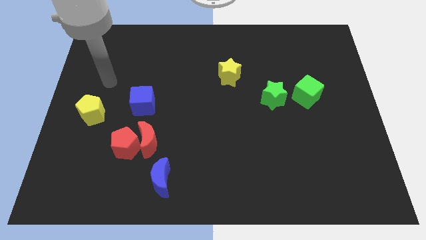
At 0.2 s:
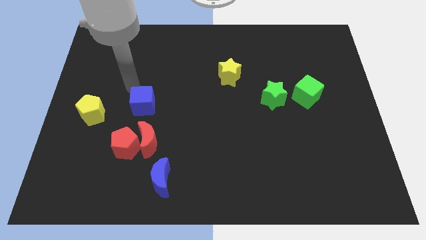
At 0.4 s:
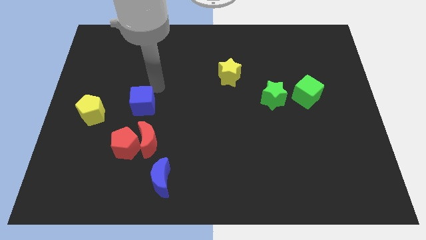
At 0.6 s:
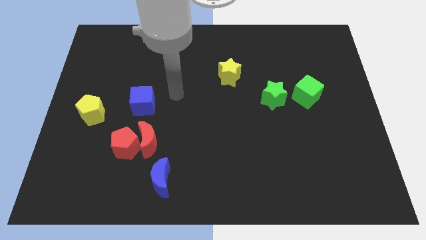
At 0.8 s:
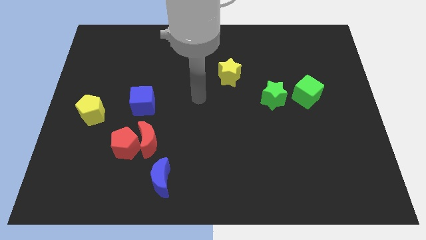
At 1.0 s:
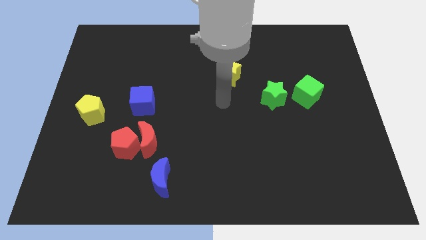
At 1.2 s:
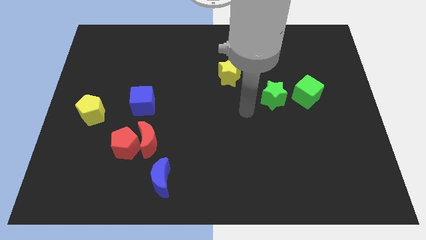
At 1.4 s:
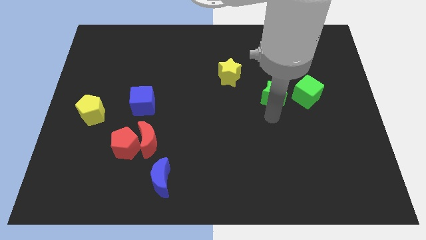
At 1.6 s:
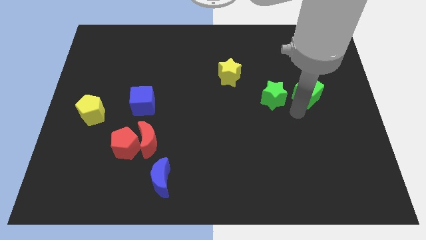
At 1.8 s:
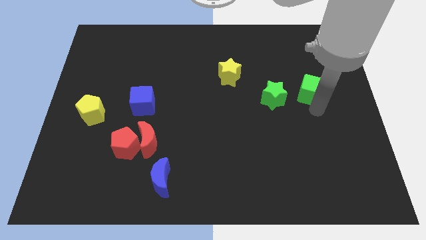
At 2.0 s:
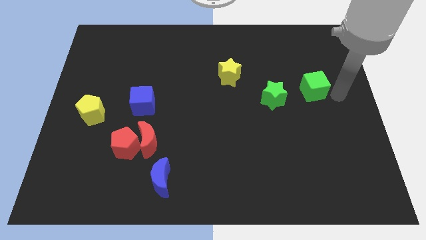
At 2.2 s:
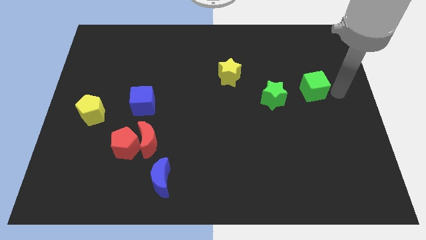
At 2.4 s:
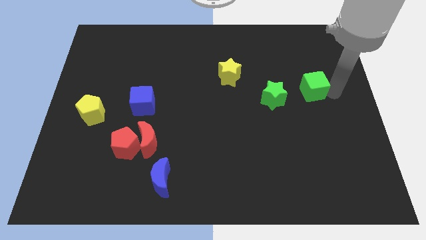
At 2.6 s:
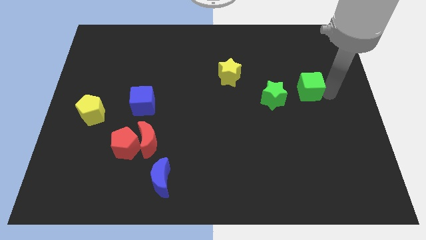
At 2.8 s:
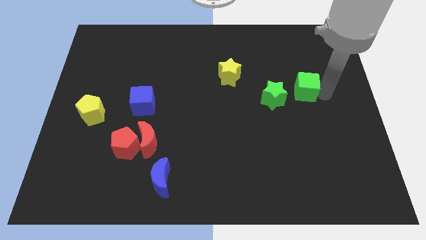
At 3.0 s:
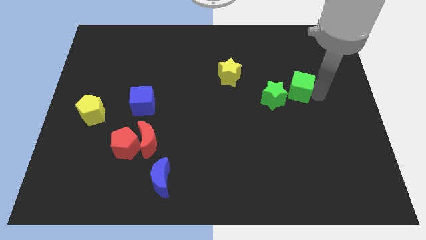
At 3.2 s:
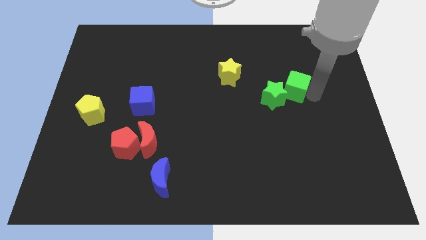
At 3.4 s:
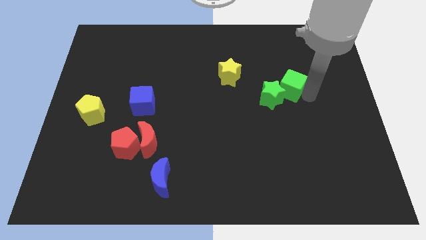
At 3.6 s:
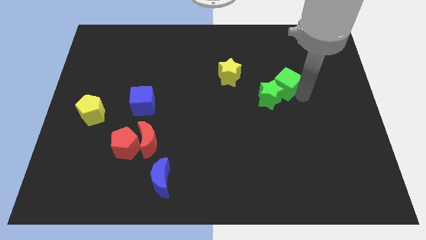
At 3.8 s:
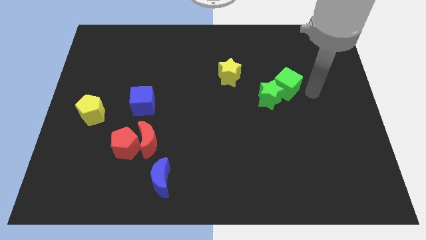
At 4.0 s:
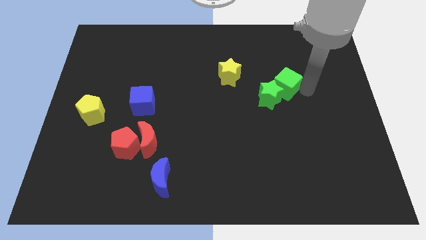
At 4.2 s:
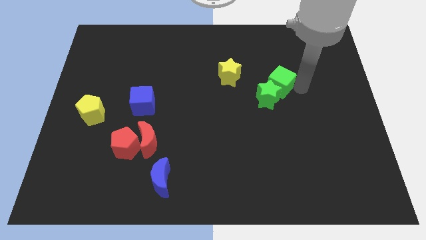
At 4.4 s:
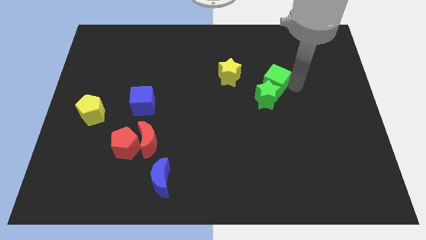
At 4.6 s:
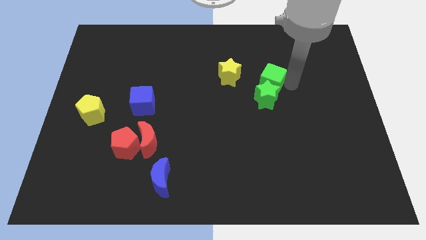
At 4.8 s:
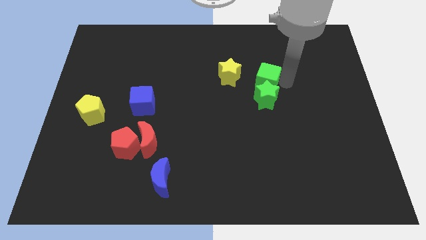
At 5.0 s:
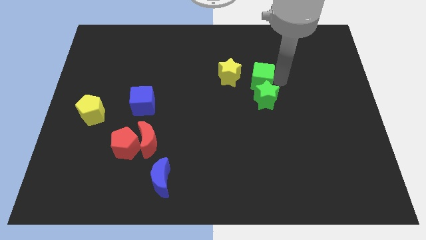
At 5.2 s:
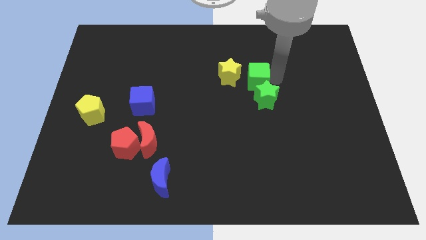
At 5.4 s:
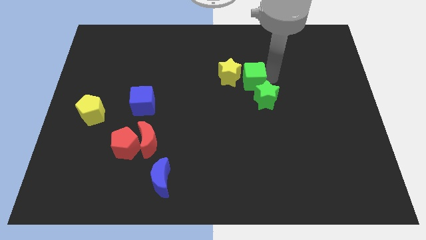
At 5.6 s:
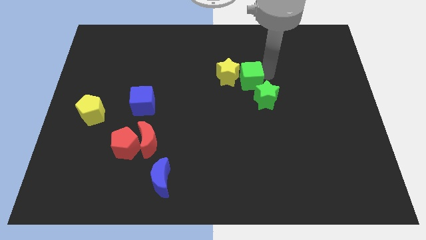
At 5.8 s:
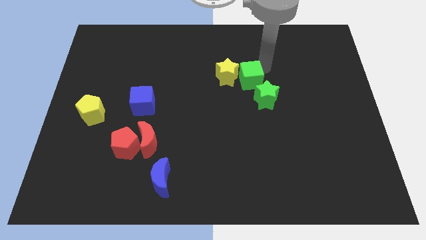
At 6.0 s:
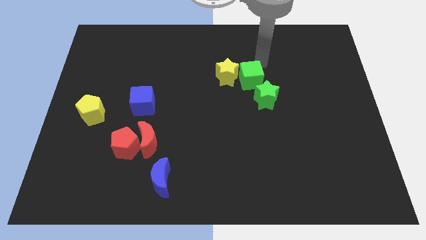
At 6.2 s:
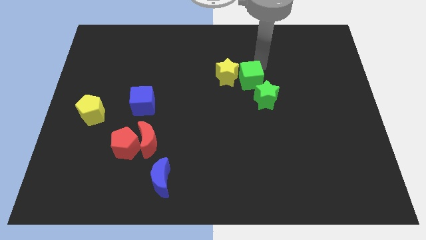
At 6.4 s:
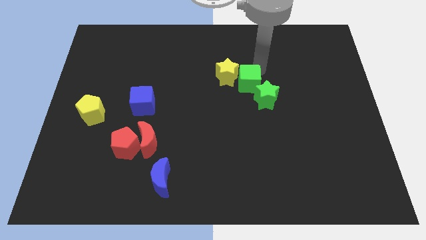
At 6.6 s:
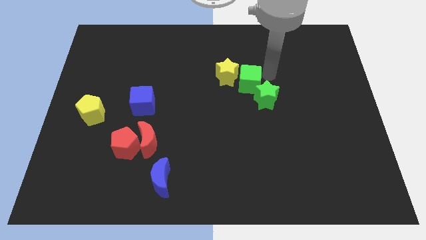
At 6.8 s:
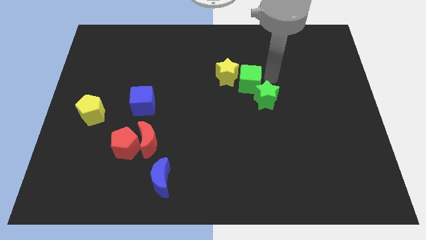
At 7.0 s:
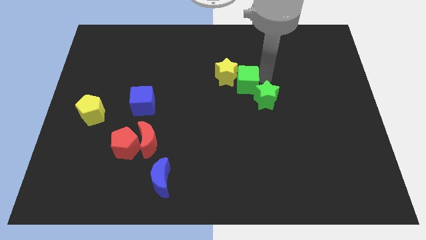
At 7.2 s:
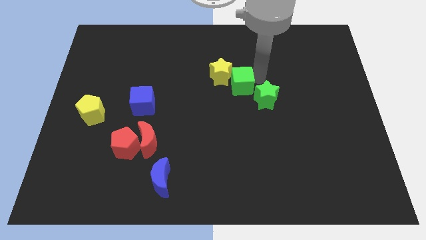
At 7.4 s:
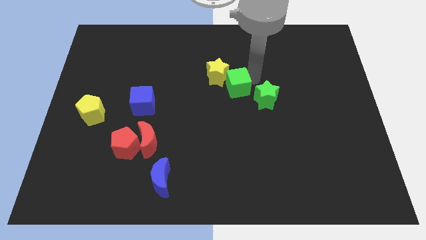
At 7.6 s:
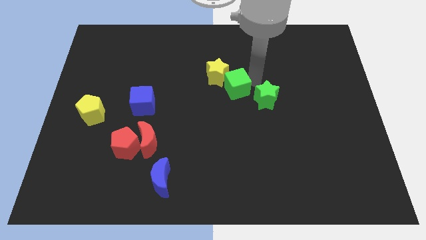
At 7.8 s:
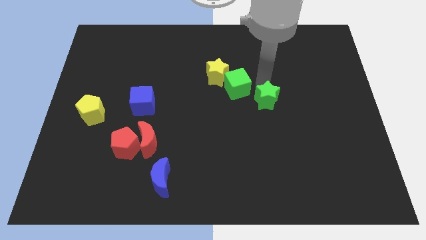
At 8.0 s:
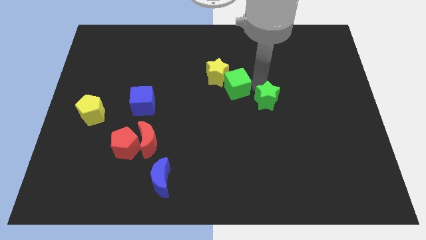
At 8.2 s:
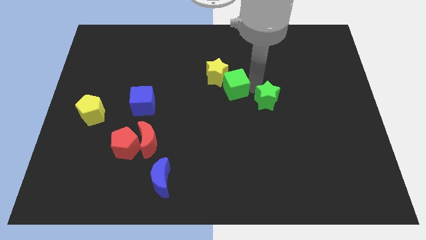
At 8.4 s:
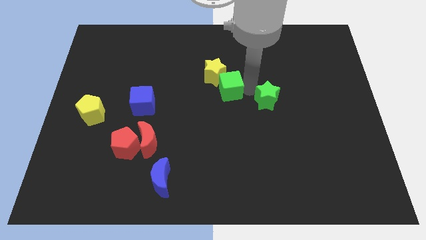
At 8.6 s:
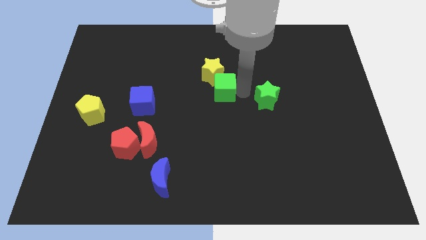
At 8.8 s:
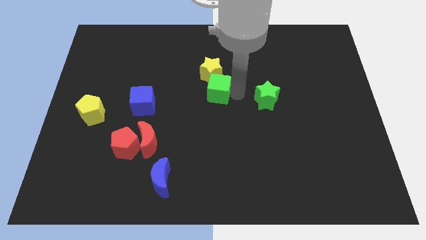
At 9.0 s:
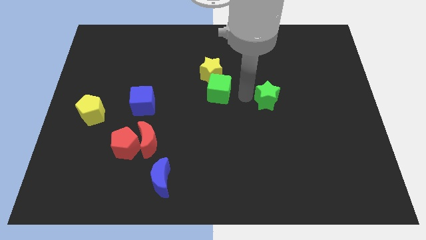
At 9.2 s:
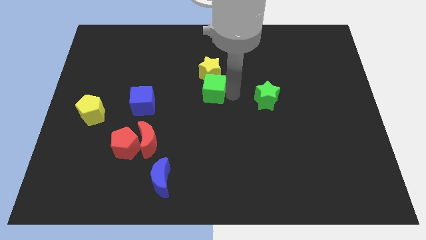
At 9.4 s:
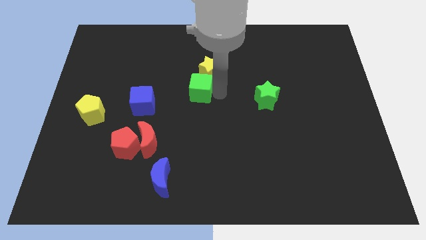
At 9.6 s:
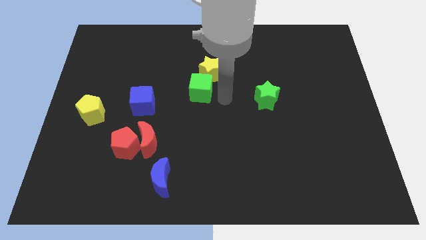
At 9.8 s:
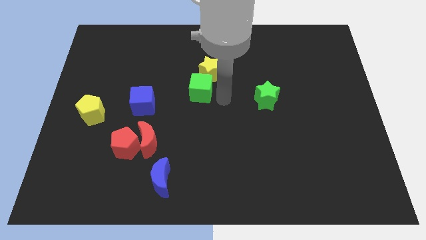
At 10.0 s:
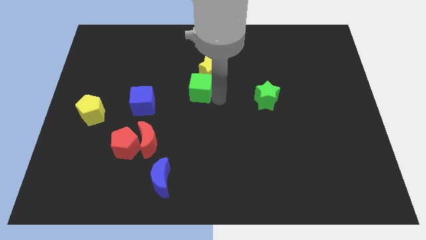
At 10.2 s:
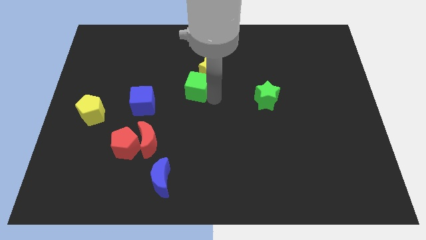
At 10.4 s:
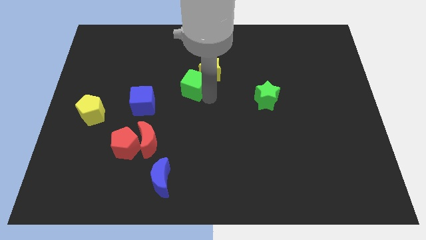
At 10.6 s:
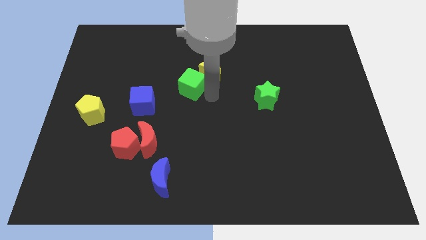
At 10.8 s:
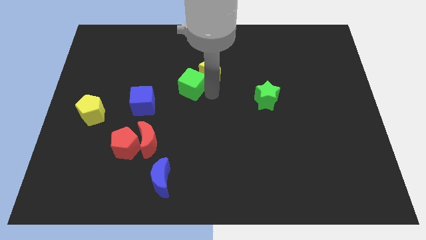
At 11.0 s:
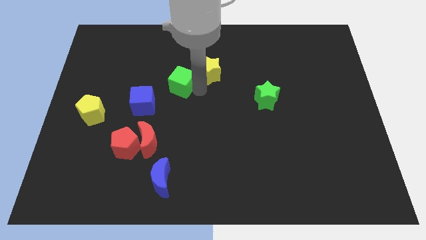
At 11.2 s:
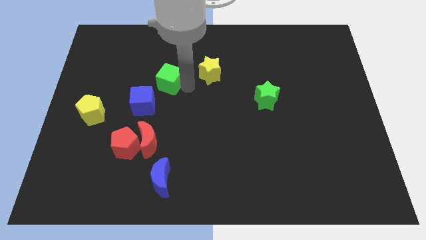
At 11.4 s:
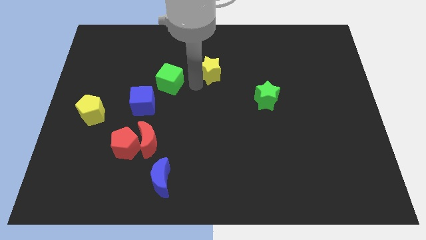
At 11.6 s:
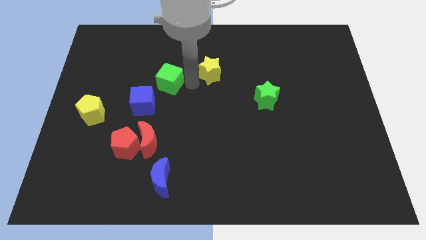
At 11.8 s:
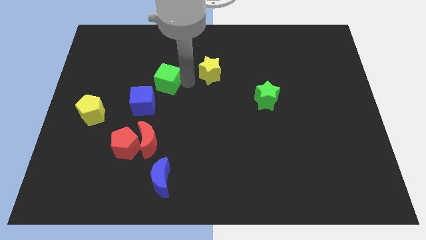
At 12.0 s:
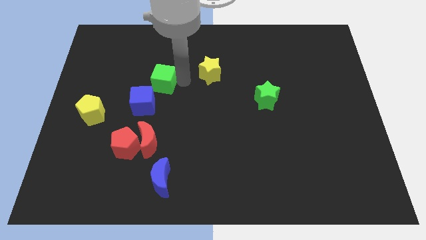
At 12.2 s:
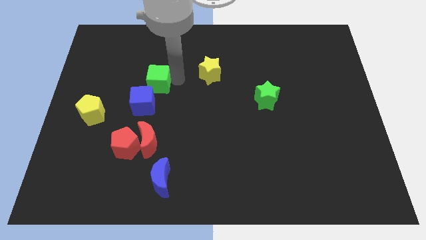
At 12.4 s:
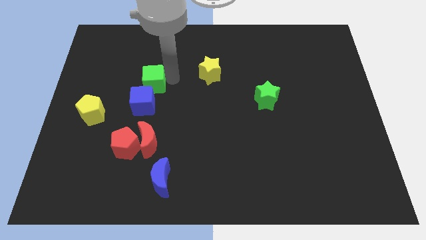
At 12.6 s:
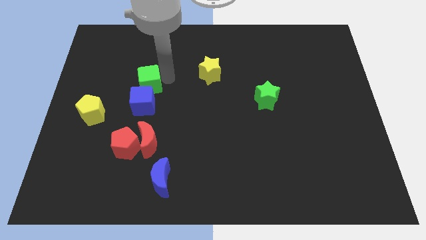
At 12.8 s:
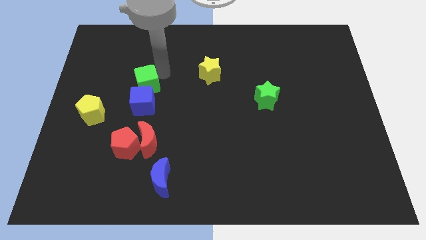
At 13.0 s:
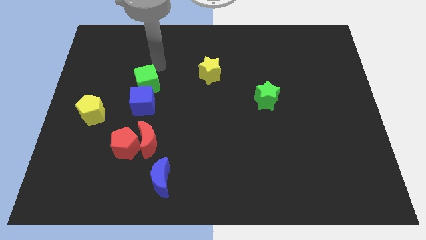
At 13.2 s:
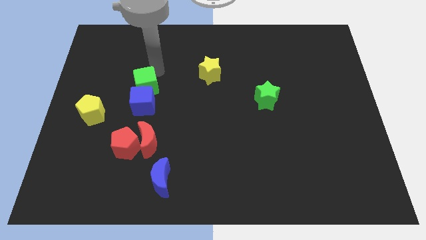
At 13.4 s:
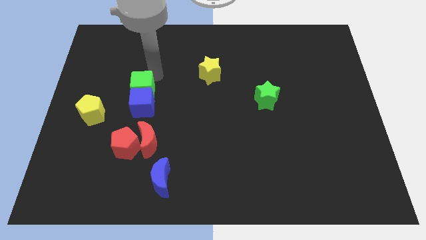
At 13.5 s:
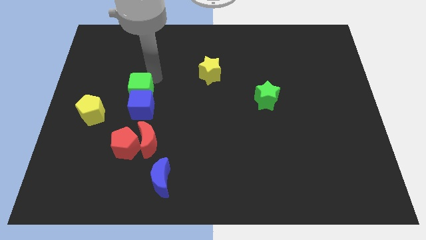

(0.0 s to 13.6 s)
move the green cube above the red pentagon
